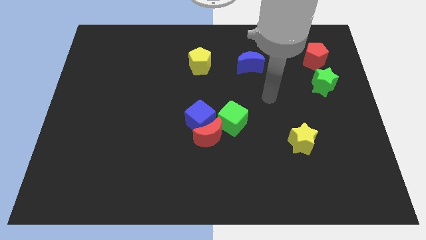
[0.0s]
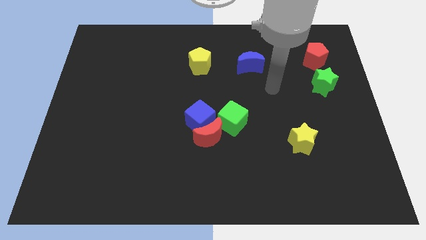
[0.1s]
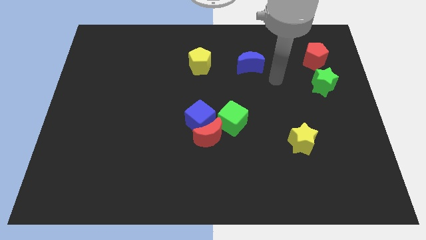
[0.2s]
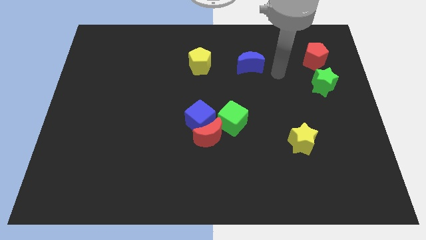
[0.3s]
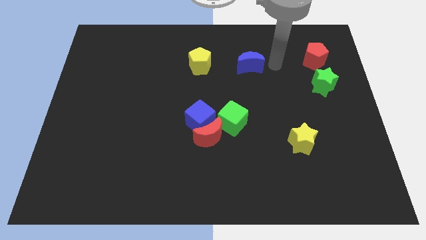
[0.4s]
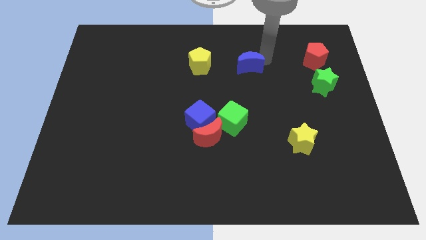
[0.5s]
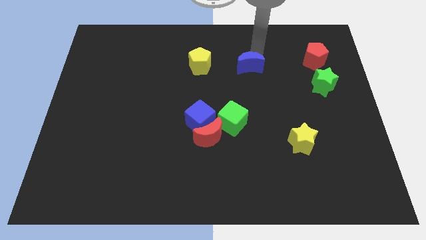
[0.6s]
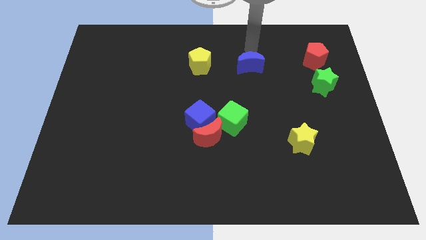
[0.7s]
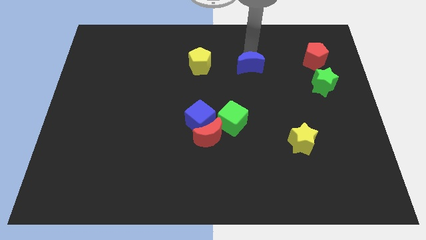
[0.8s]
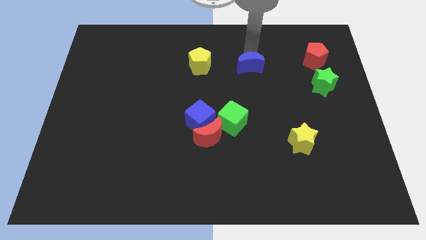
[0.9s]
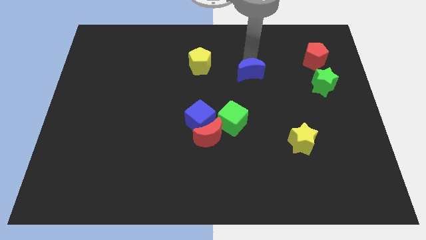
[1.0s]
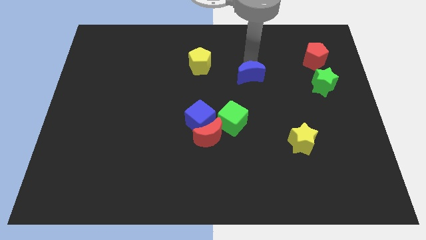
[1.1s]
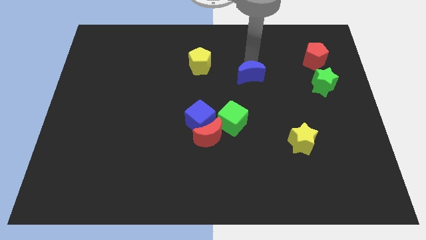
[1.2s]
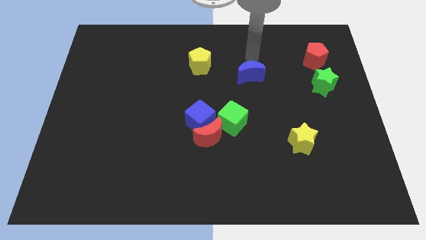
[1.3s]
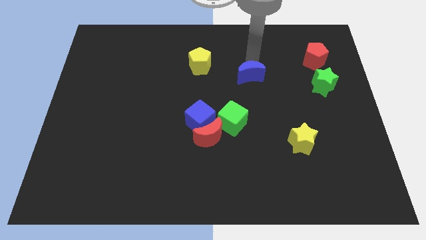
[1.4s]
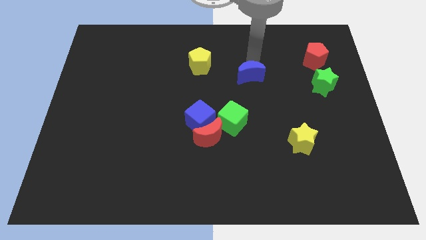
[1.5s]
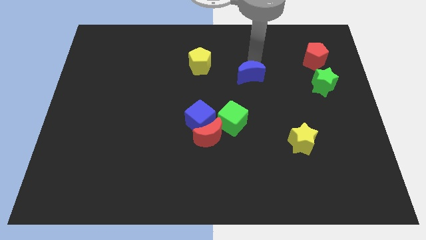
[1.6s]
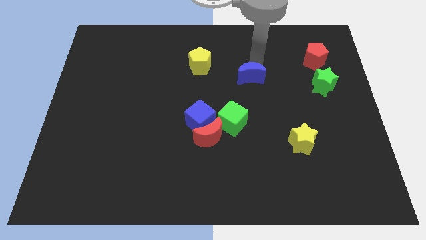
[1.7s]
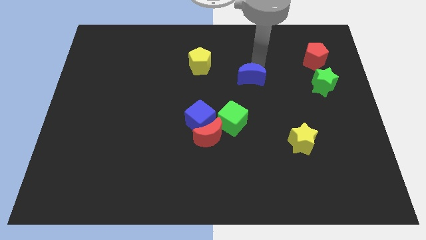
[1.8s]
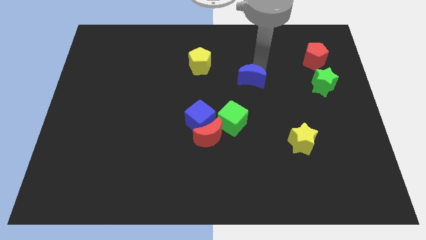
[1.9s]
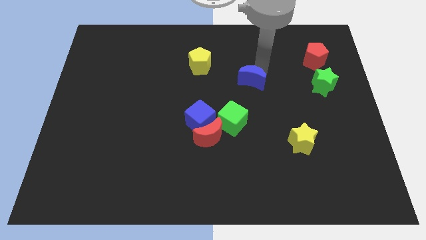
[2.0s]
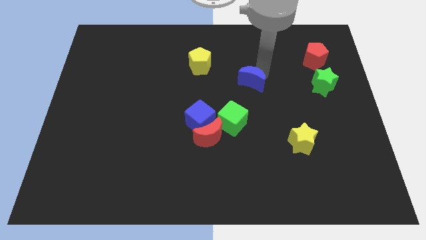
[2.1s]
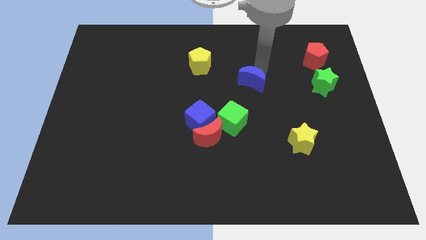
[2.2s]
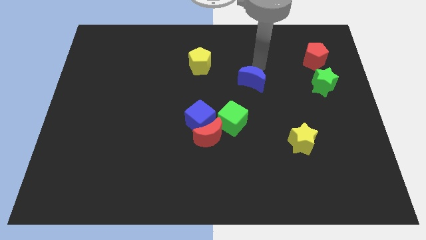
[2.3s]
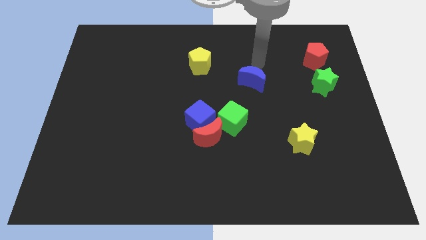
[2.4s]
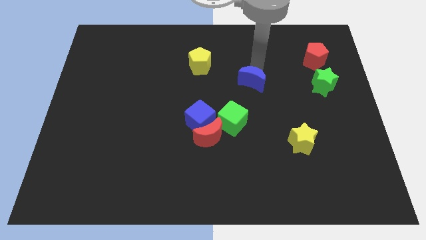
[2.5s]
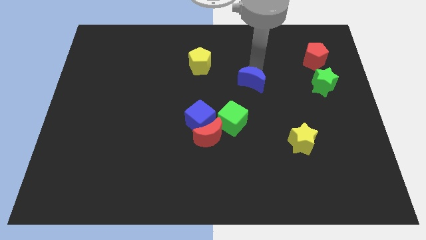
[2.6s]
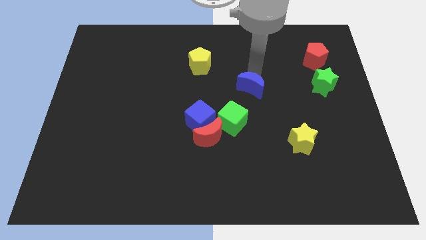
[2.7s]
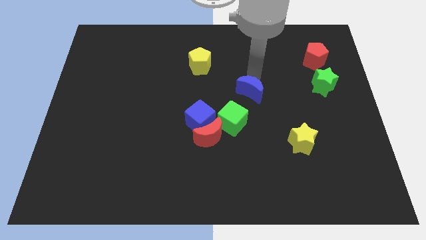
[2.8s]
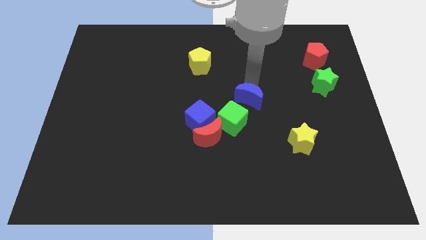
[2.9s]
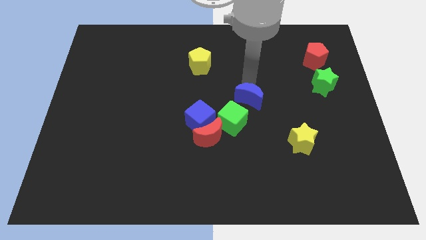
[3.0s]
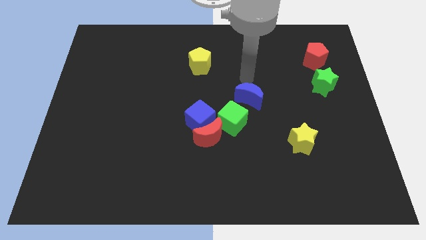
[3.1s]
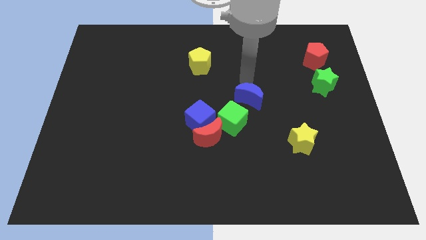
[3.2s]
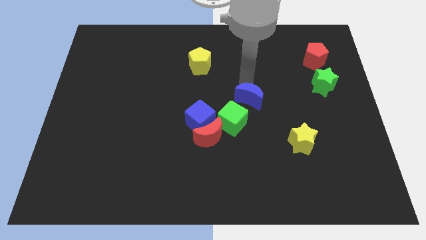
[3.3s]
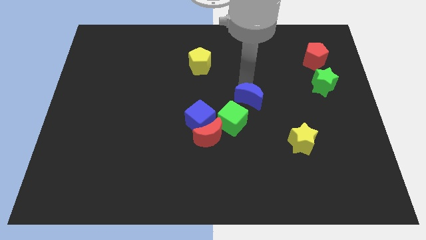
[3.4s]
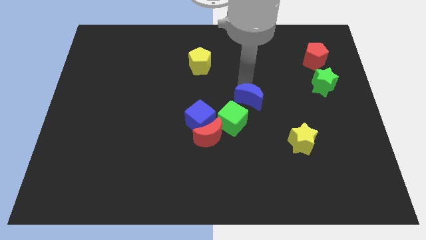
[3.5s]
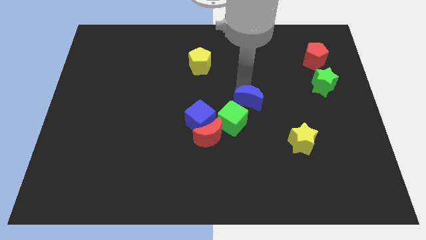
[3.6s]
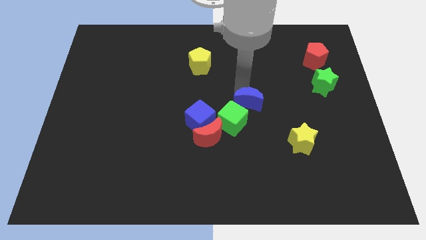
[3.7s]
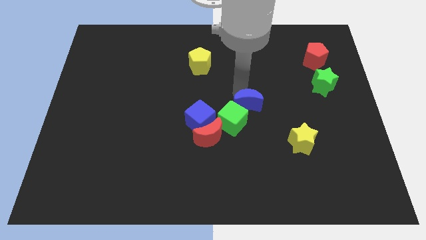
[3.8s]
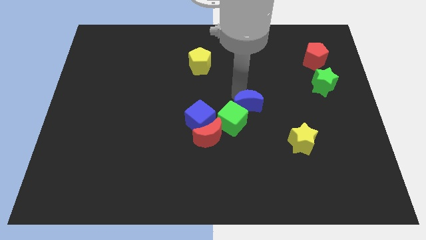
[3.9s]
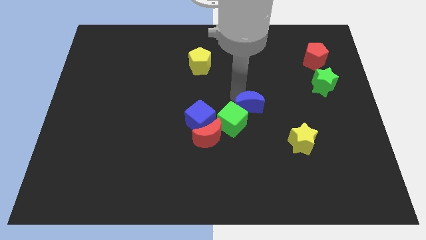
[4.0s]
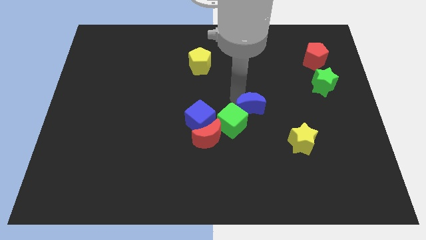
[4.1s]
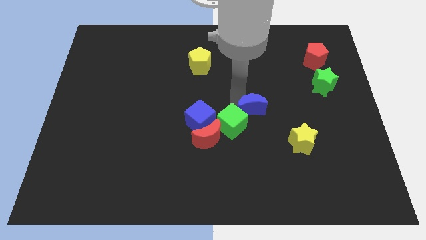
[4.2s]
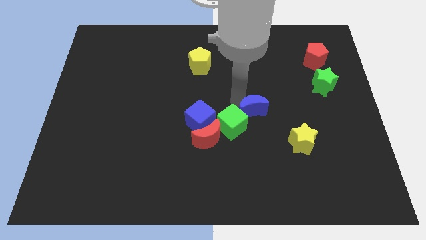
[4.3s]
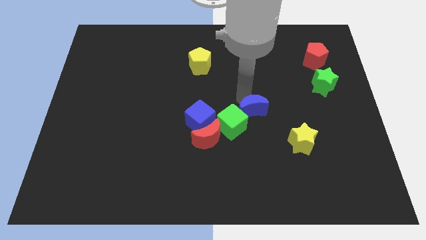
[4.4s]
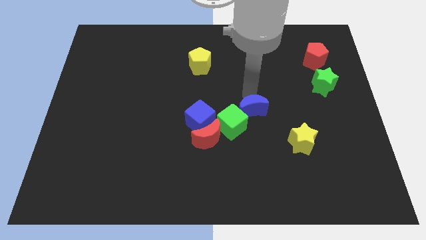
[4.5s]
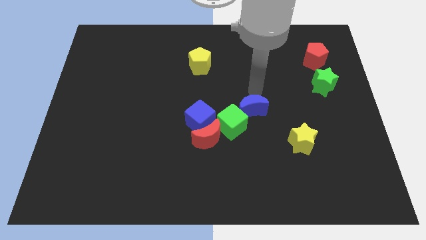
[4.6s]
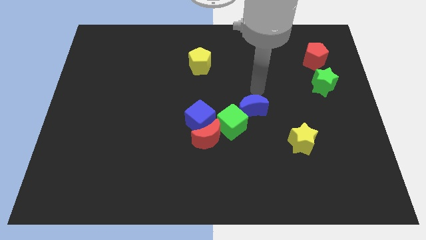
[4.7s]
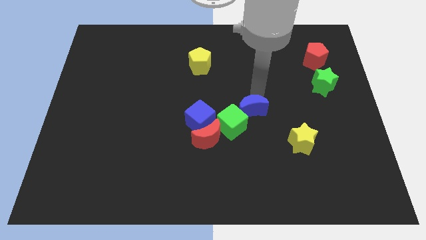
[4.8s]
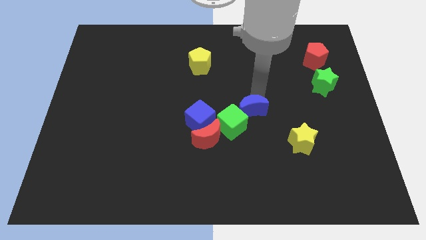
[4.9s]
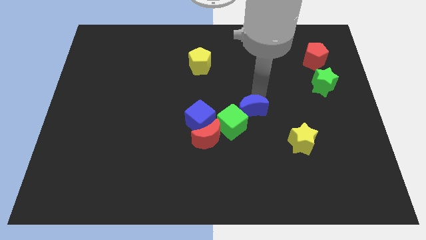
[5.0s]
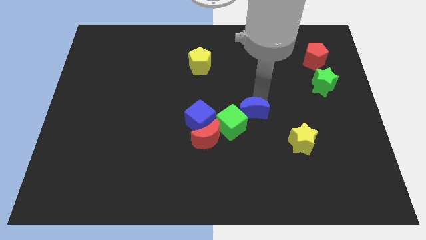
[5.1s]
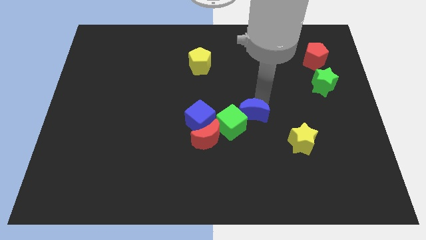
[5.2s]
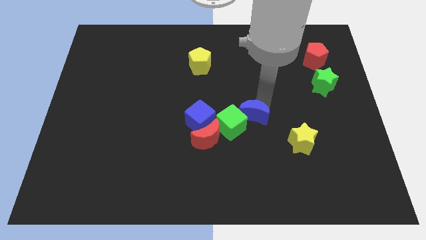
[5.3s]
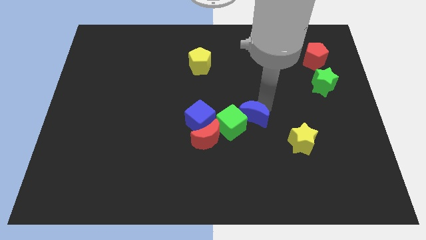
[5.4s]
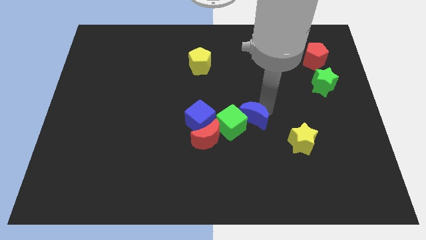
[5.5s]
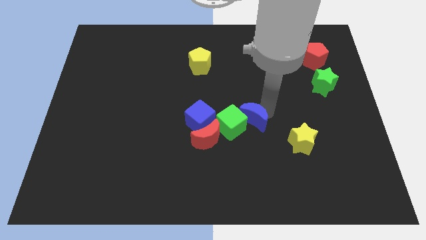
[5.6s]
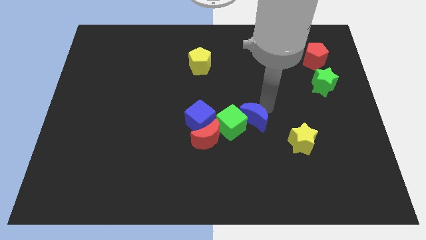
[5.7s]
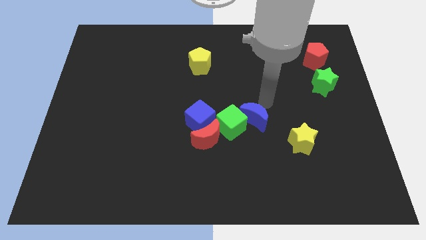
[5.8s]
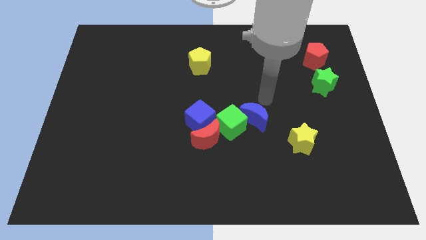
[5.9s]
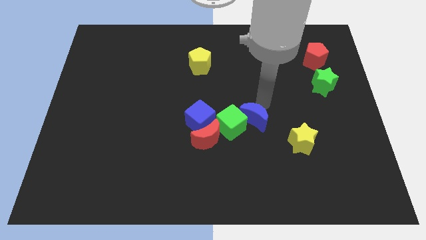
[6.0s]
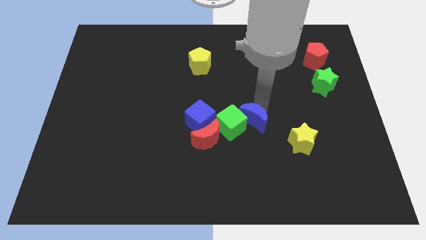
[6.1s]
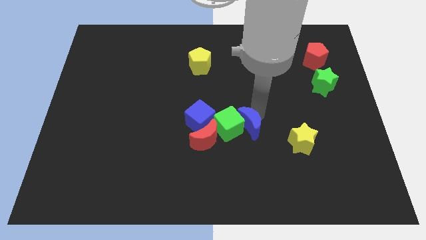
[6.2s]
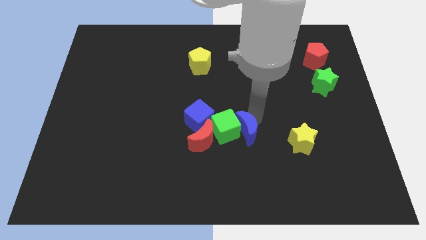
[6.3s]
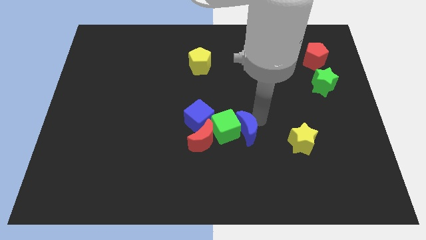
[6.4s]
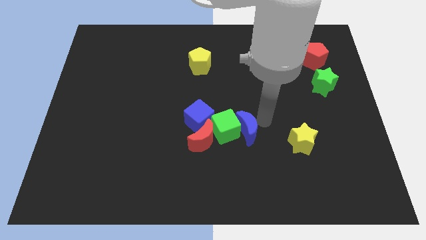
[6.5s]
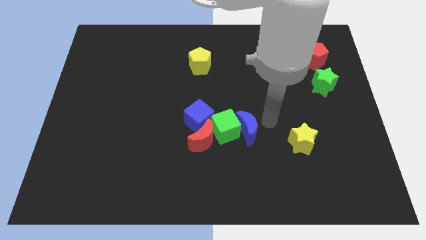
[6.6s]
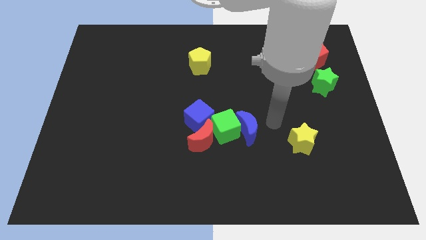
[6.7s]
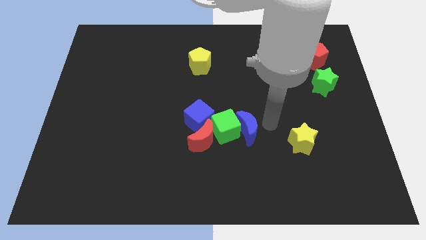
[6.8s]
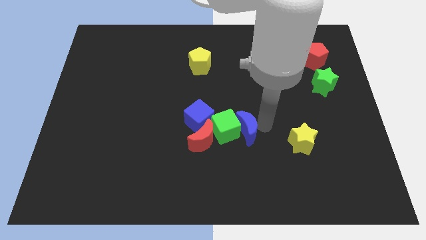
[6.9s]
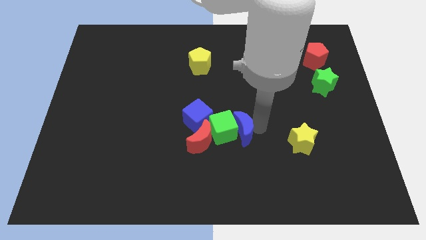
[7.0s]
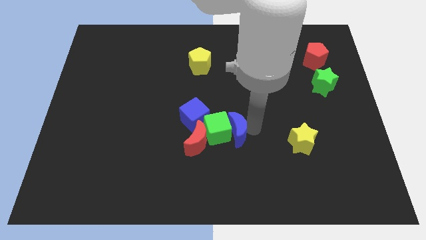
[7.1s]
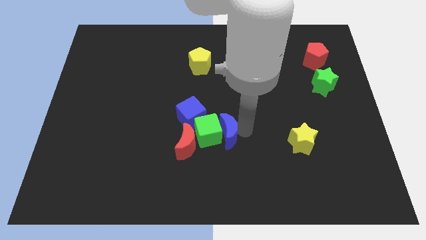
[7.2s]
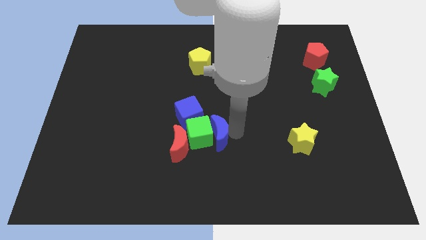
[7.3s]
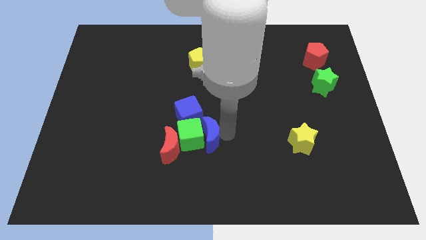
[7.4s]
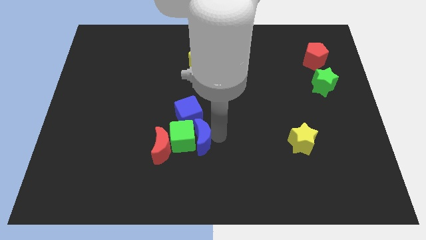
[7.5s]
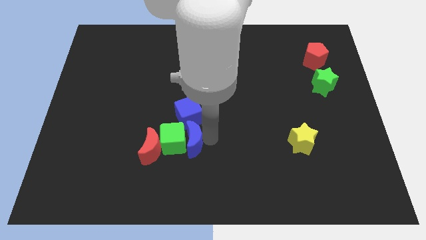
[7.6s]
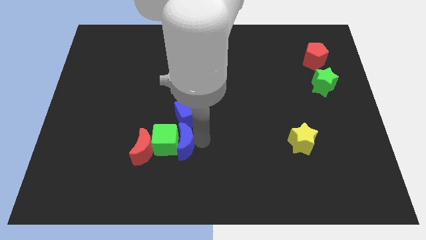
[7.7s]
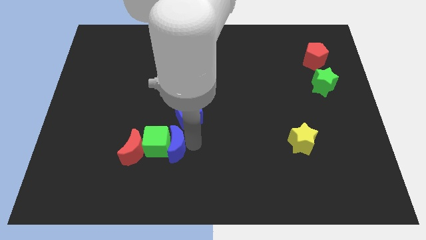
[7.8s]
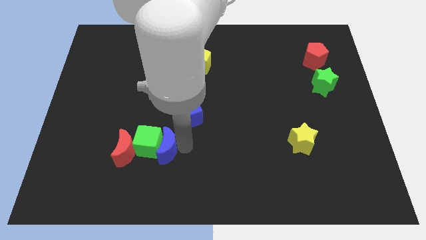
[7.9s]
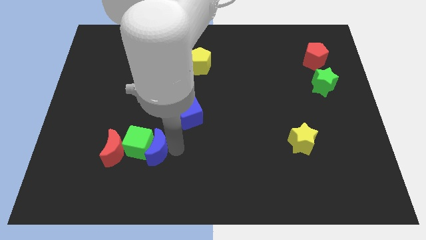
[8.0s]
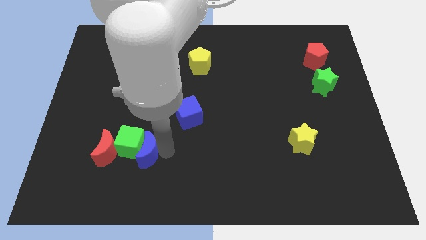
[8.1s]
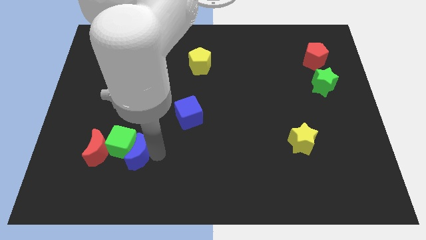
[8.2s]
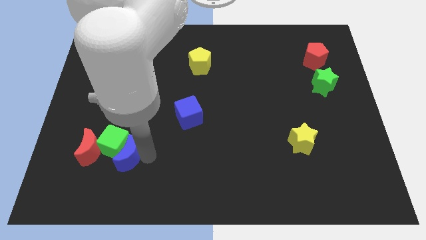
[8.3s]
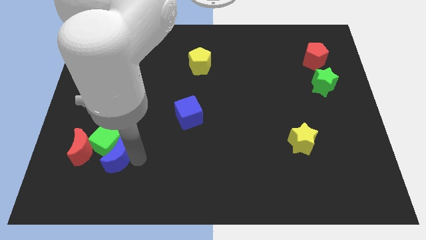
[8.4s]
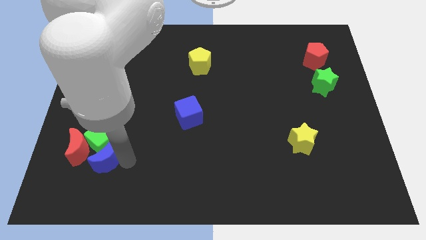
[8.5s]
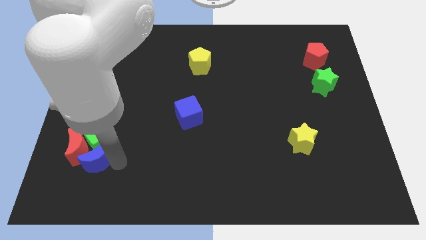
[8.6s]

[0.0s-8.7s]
put the blue moon to the red moon
